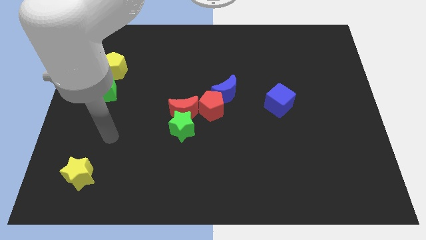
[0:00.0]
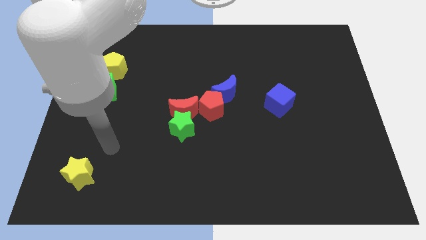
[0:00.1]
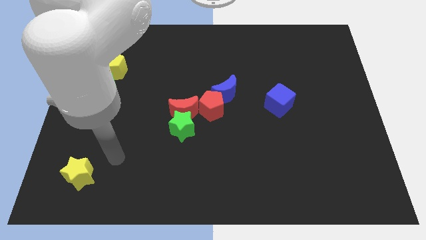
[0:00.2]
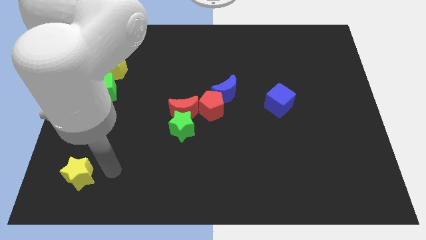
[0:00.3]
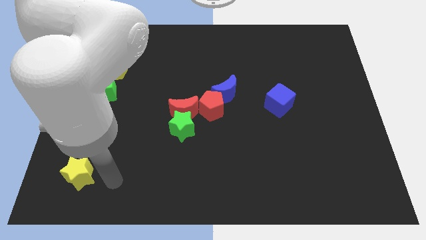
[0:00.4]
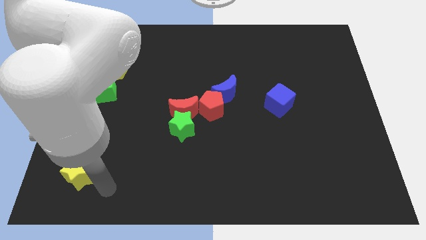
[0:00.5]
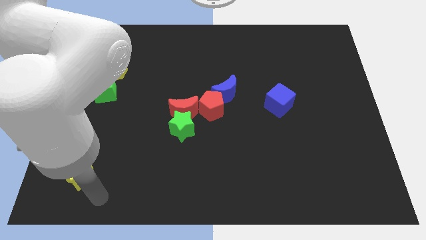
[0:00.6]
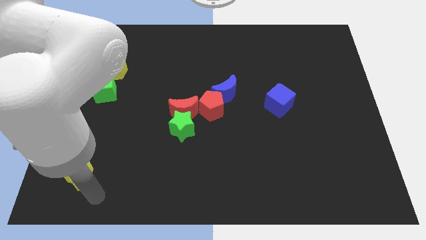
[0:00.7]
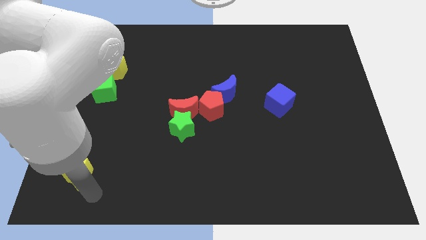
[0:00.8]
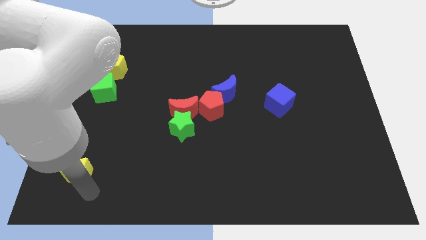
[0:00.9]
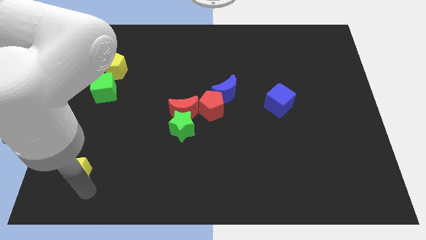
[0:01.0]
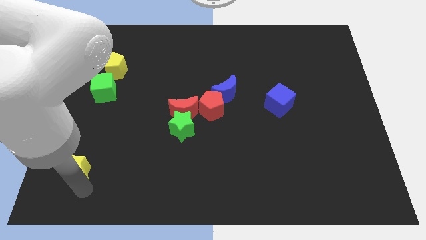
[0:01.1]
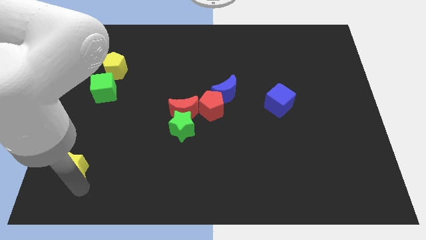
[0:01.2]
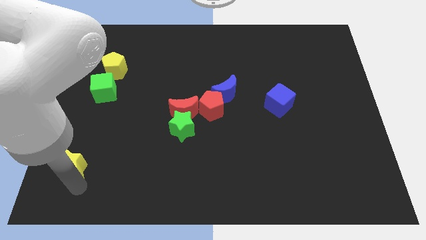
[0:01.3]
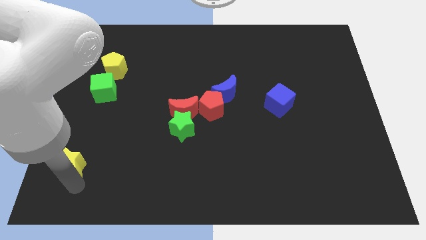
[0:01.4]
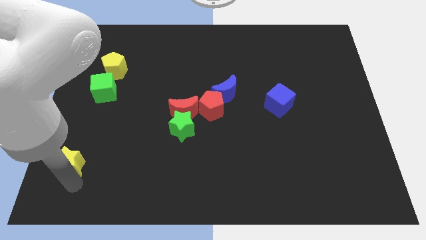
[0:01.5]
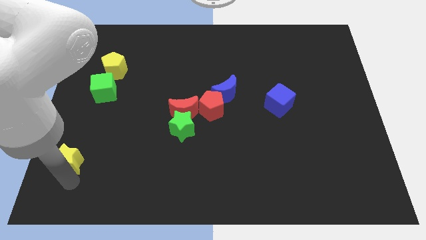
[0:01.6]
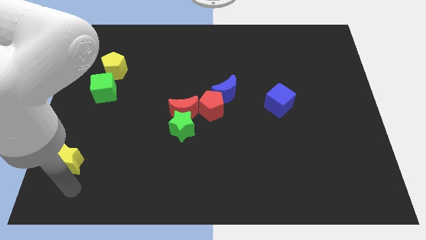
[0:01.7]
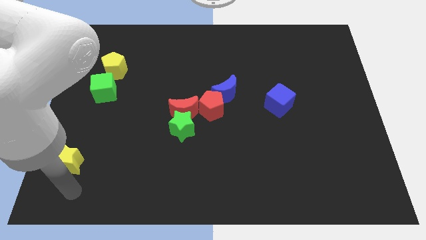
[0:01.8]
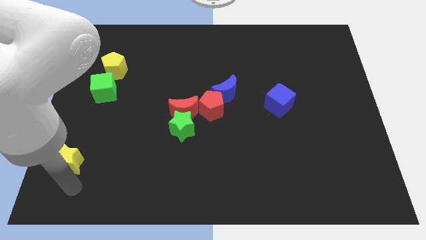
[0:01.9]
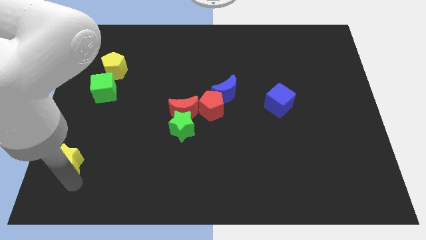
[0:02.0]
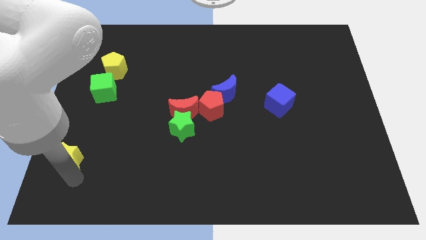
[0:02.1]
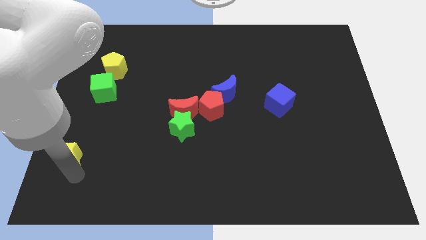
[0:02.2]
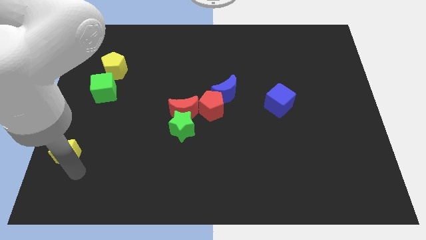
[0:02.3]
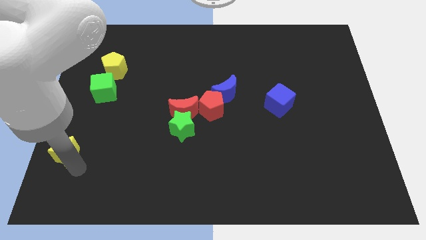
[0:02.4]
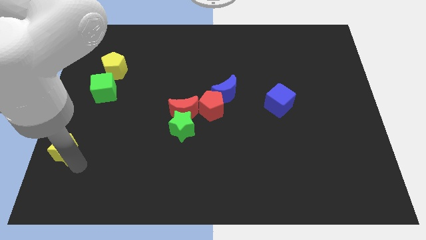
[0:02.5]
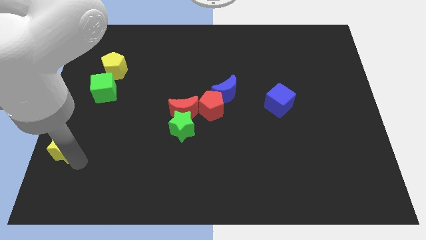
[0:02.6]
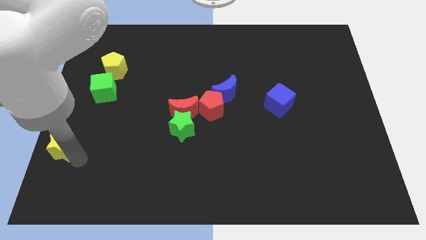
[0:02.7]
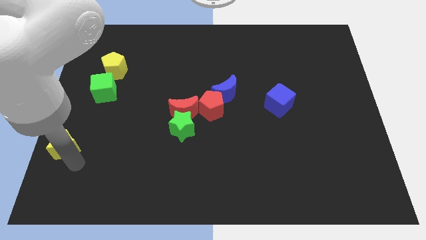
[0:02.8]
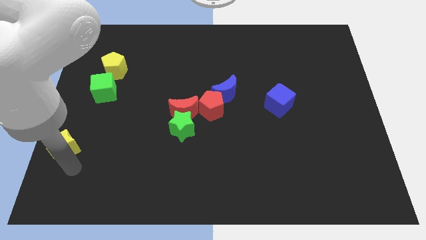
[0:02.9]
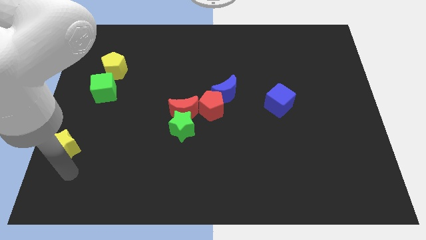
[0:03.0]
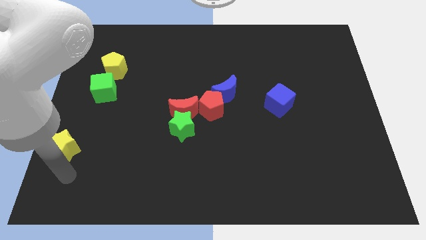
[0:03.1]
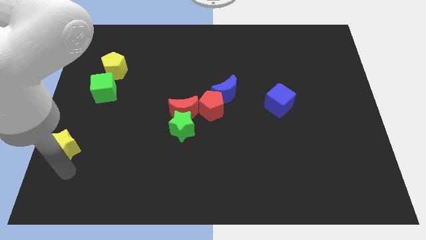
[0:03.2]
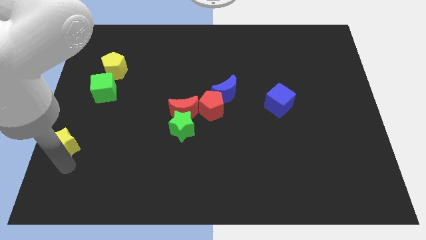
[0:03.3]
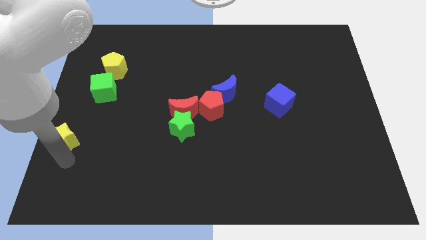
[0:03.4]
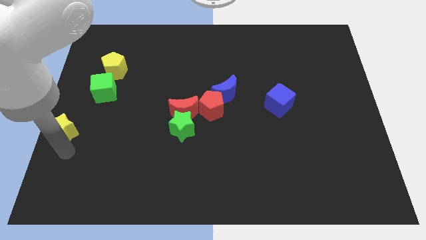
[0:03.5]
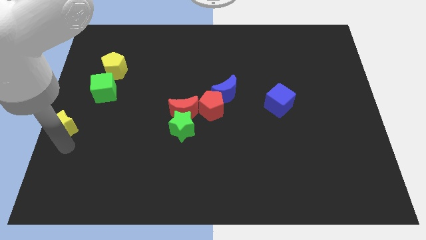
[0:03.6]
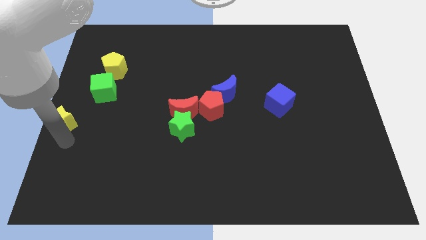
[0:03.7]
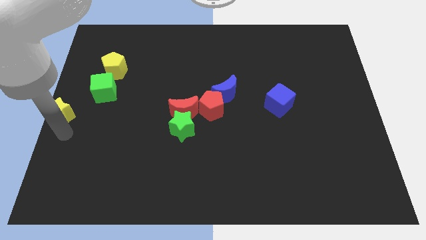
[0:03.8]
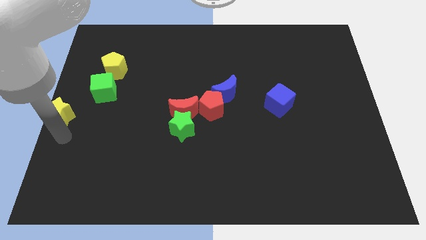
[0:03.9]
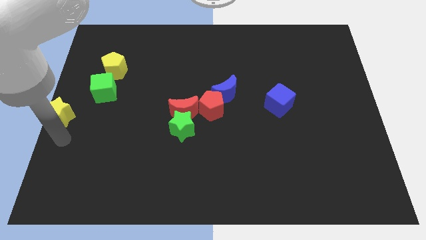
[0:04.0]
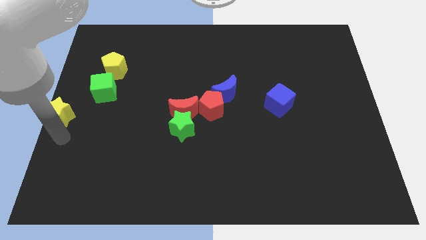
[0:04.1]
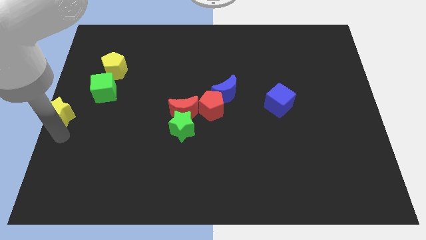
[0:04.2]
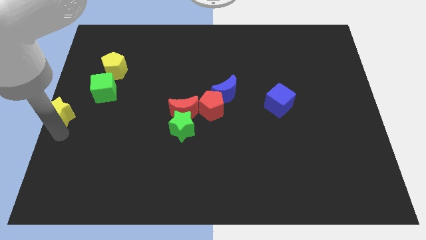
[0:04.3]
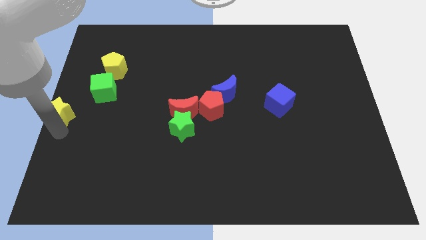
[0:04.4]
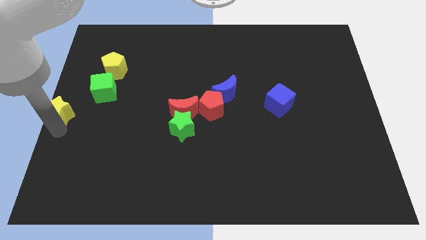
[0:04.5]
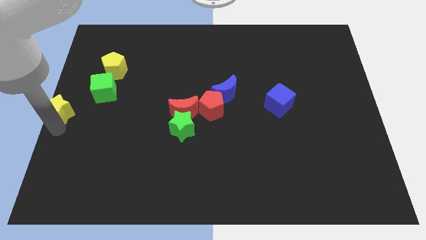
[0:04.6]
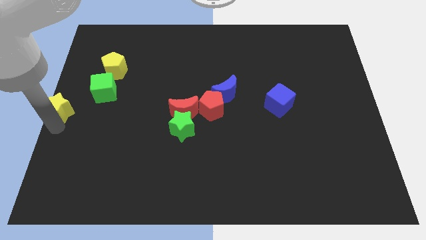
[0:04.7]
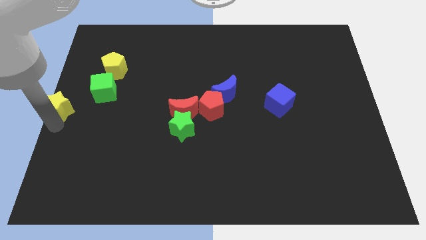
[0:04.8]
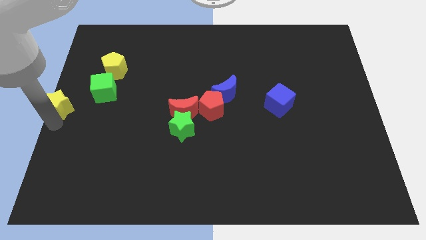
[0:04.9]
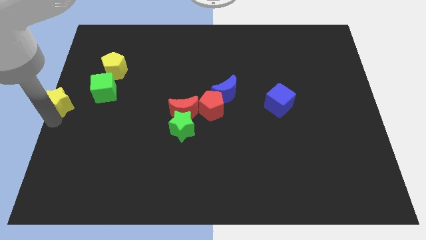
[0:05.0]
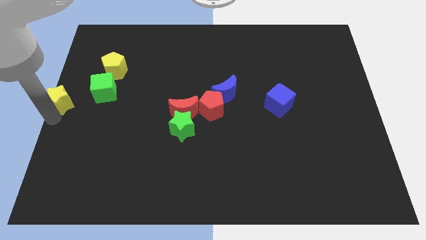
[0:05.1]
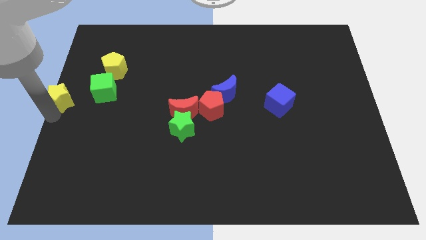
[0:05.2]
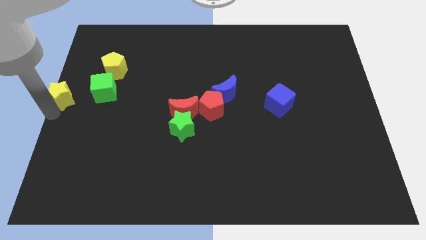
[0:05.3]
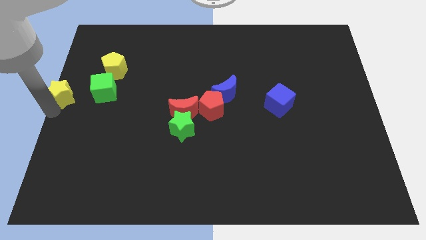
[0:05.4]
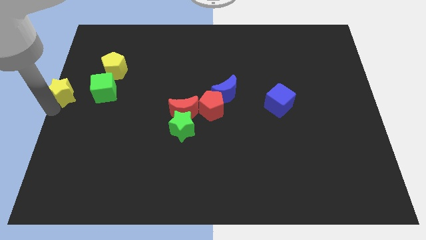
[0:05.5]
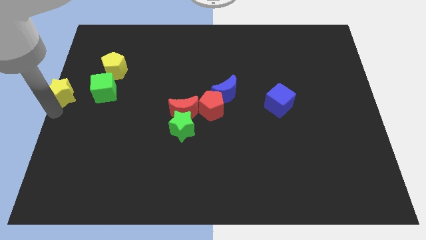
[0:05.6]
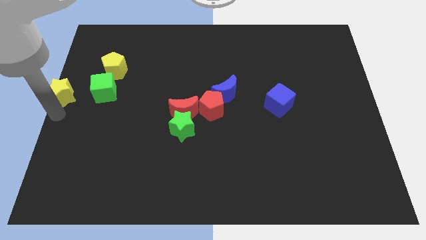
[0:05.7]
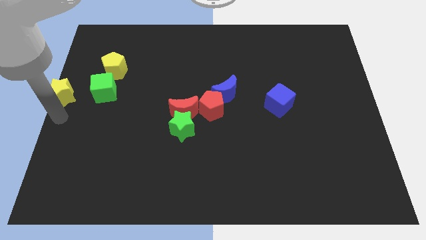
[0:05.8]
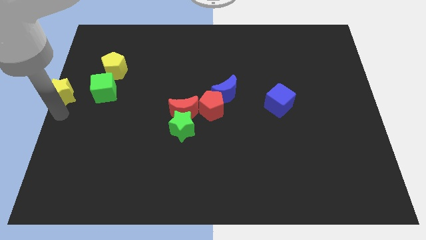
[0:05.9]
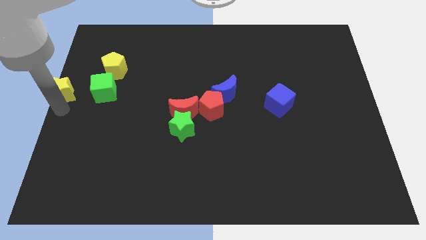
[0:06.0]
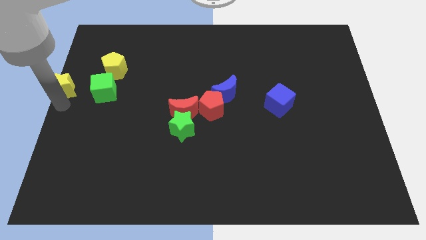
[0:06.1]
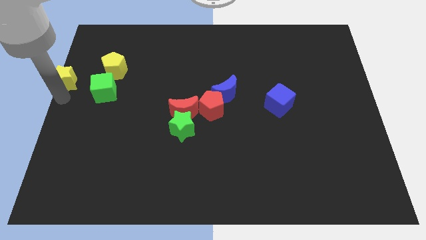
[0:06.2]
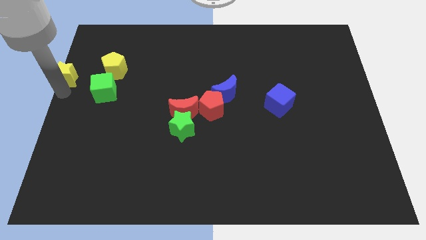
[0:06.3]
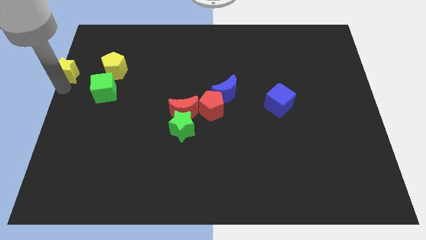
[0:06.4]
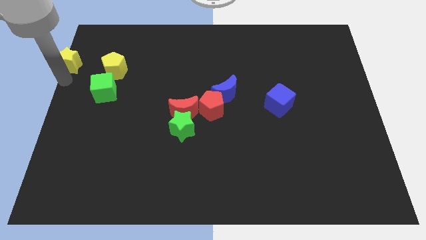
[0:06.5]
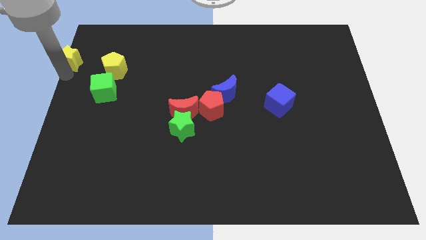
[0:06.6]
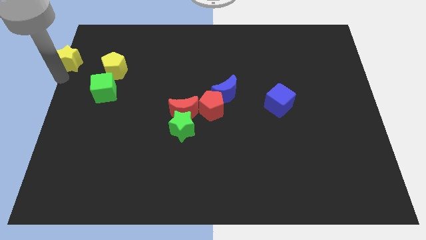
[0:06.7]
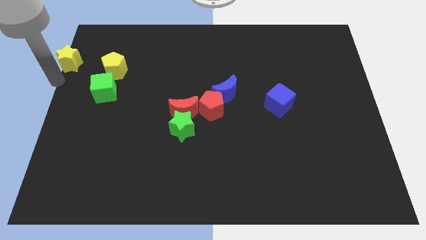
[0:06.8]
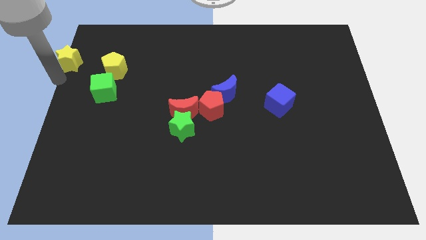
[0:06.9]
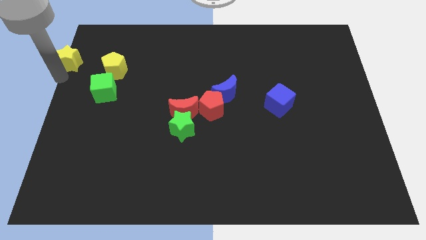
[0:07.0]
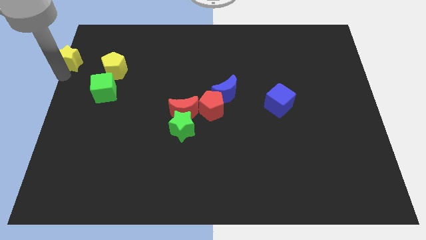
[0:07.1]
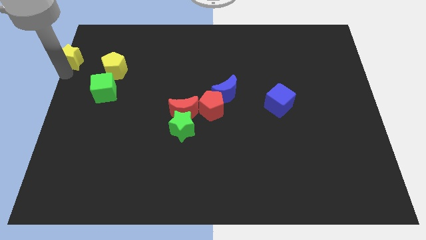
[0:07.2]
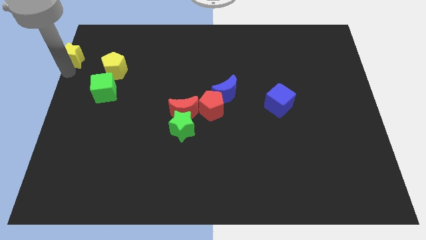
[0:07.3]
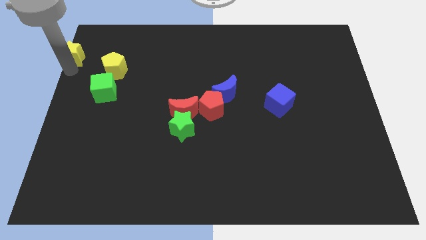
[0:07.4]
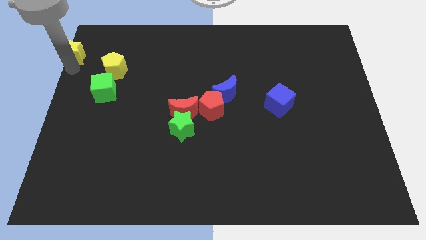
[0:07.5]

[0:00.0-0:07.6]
move the yellow star to the upper left corner
